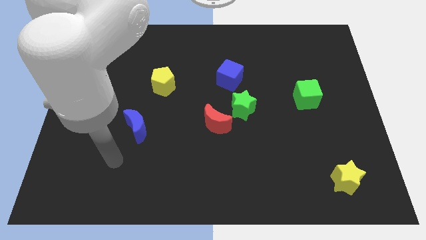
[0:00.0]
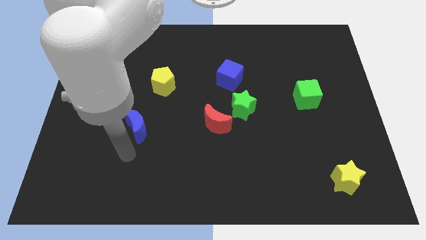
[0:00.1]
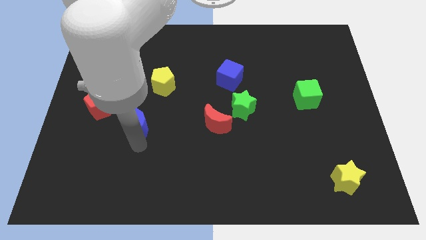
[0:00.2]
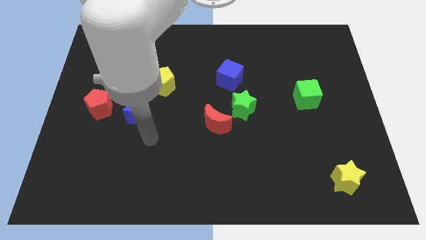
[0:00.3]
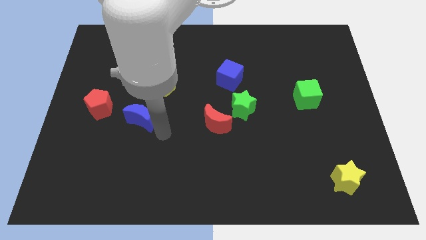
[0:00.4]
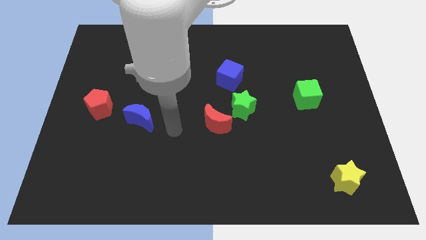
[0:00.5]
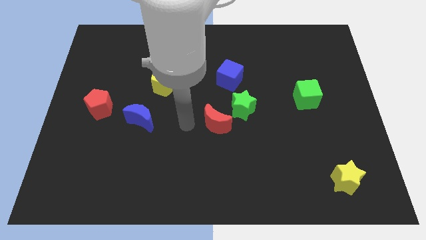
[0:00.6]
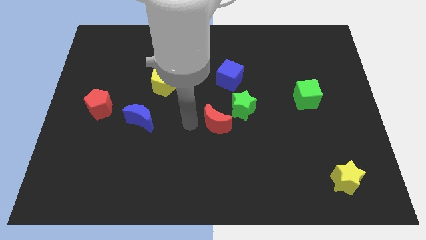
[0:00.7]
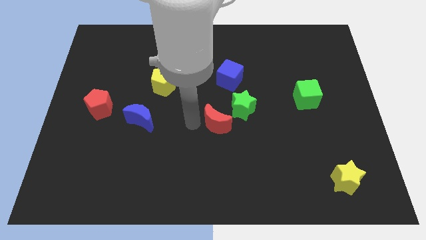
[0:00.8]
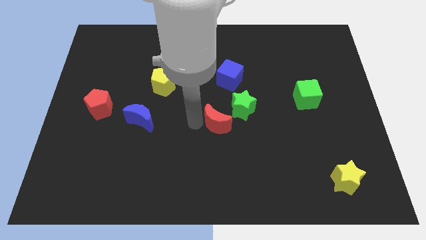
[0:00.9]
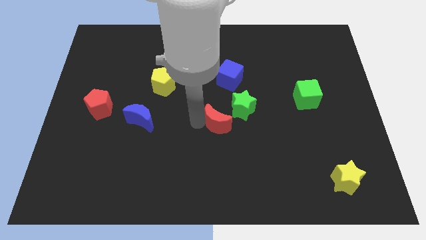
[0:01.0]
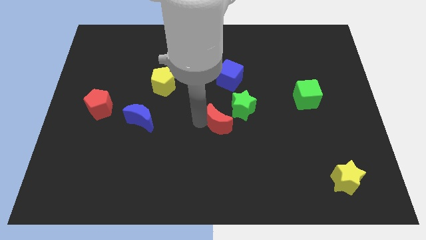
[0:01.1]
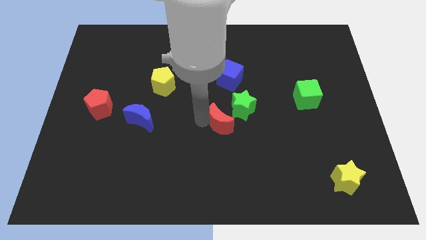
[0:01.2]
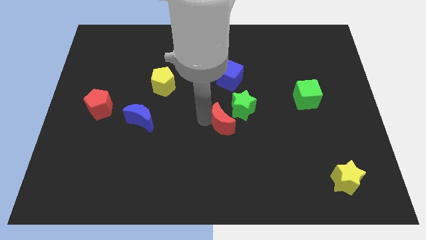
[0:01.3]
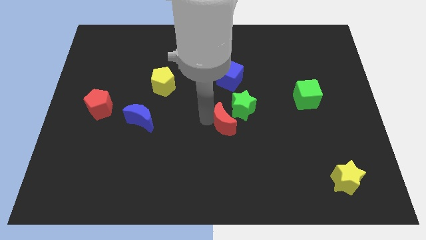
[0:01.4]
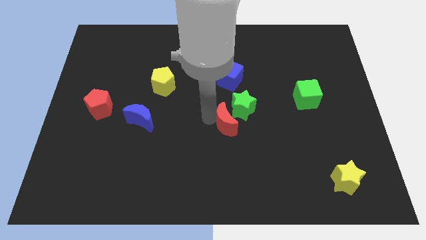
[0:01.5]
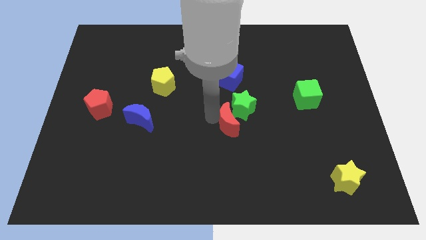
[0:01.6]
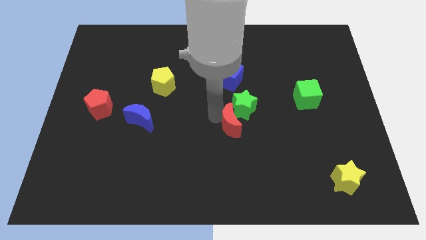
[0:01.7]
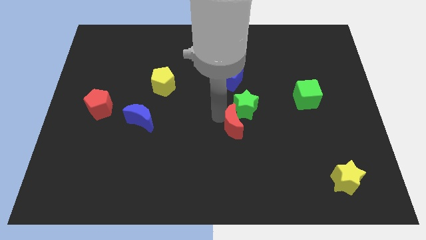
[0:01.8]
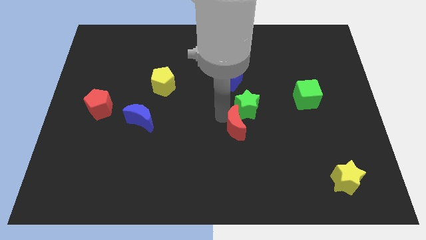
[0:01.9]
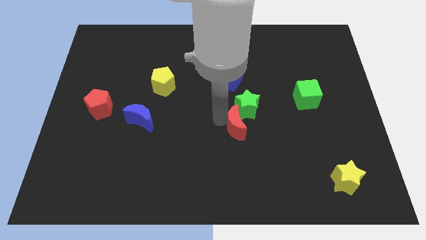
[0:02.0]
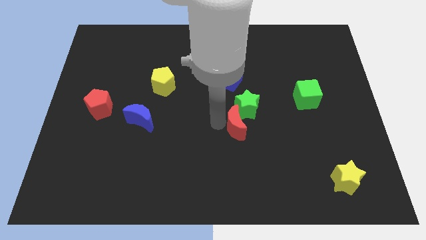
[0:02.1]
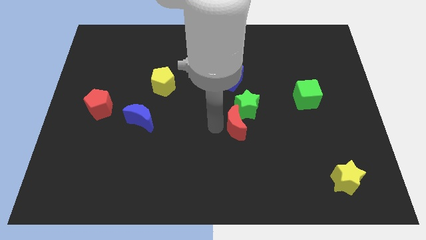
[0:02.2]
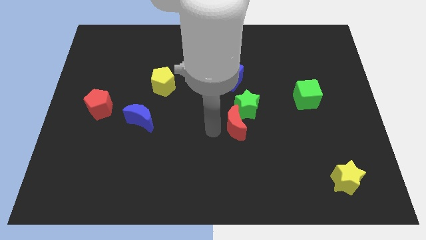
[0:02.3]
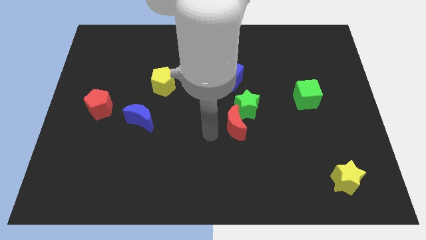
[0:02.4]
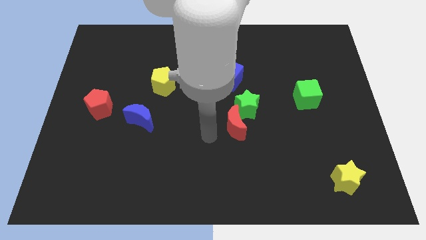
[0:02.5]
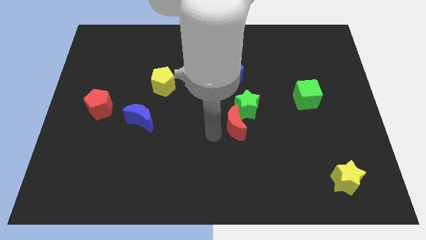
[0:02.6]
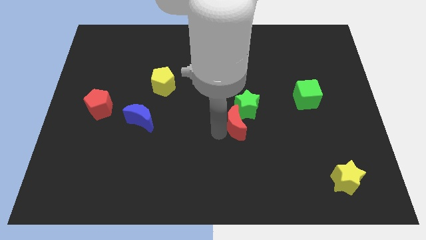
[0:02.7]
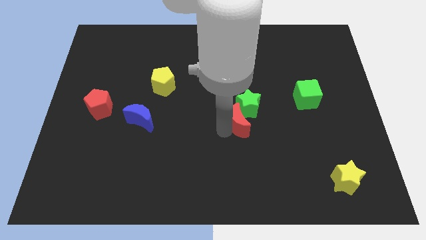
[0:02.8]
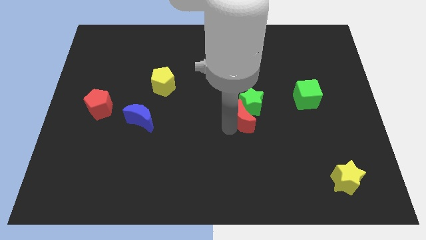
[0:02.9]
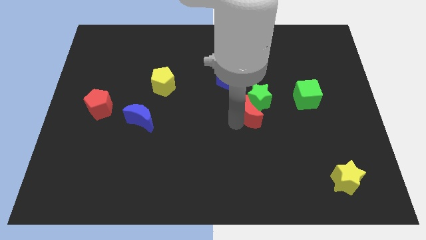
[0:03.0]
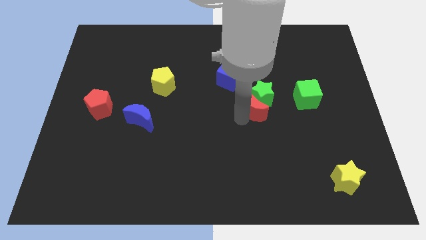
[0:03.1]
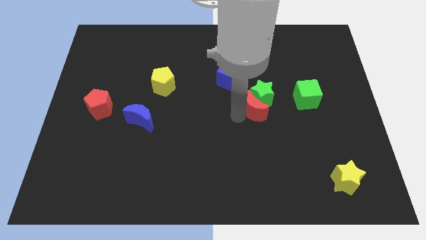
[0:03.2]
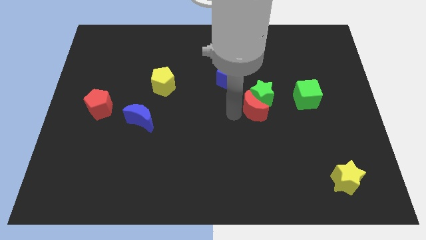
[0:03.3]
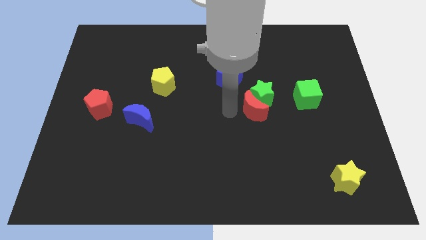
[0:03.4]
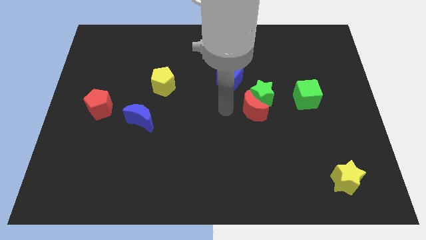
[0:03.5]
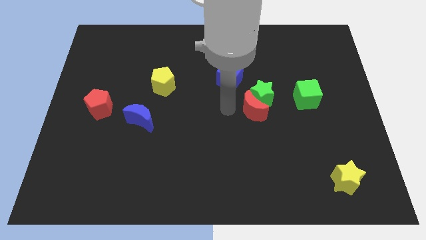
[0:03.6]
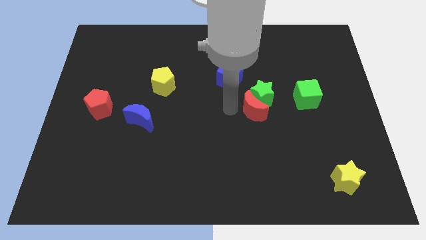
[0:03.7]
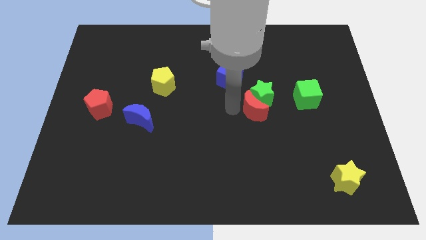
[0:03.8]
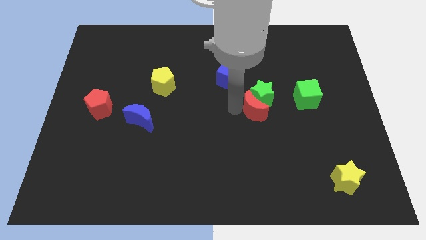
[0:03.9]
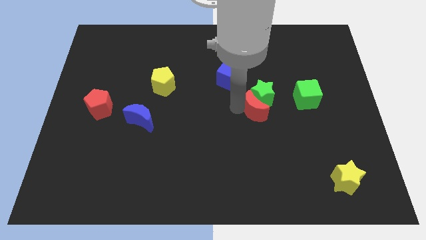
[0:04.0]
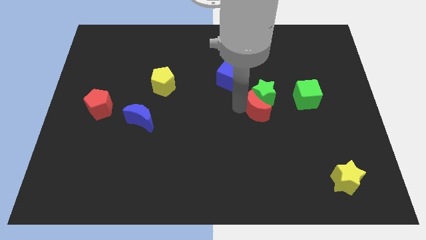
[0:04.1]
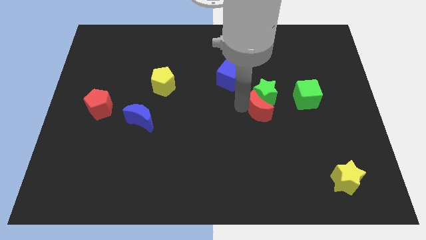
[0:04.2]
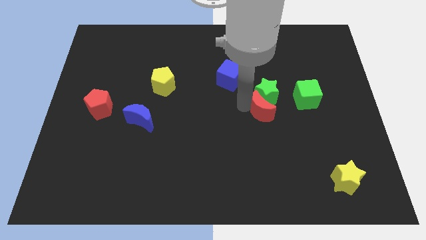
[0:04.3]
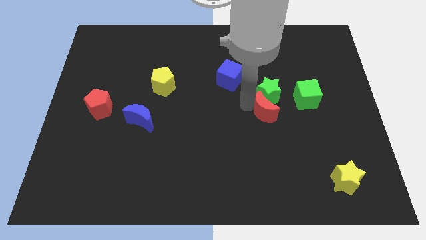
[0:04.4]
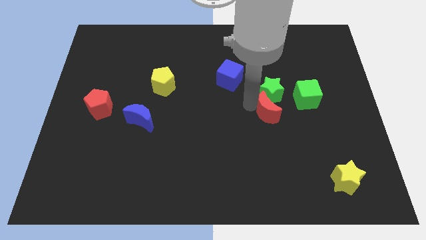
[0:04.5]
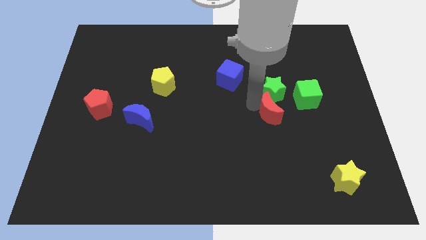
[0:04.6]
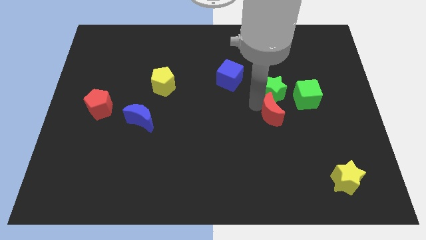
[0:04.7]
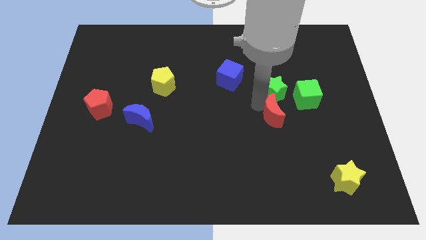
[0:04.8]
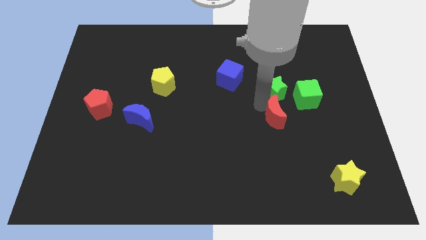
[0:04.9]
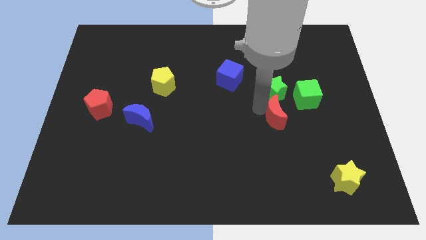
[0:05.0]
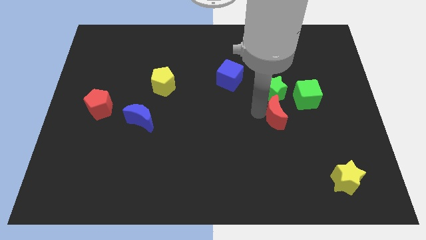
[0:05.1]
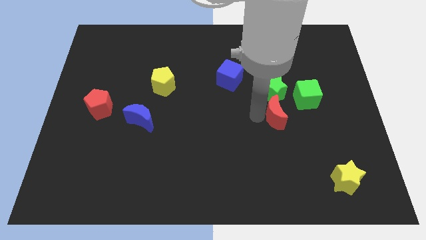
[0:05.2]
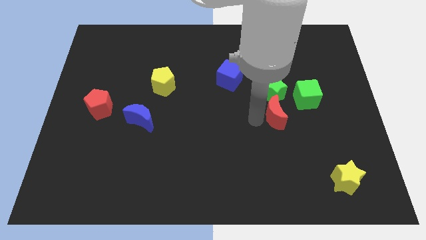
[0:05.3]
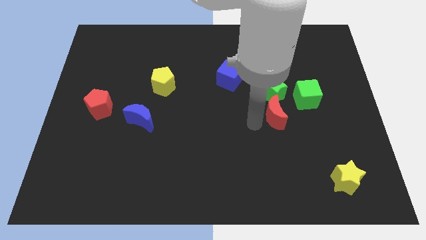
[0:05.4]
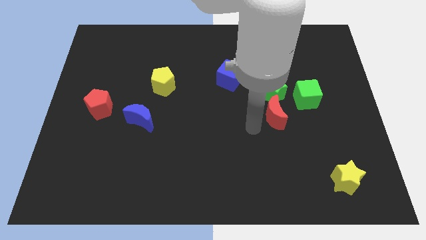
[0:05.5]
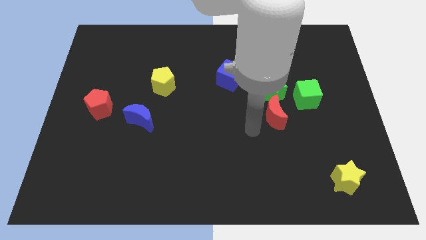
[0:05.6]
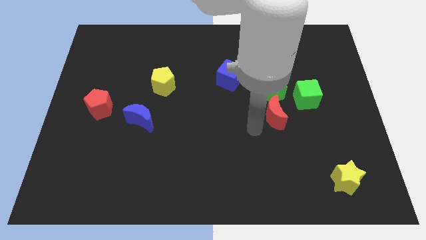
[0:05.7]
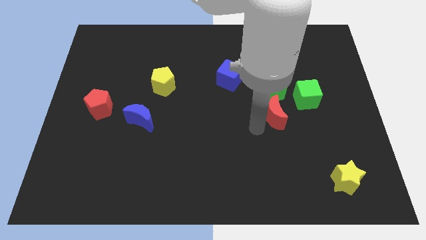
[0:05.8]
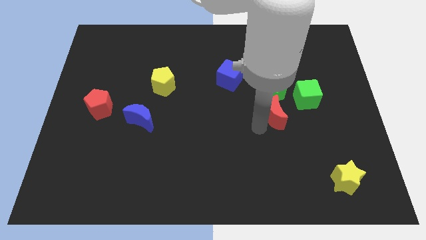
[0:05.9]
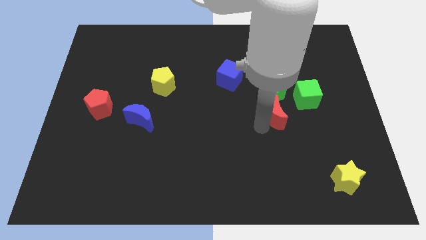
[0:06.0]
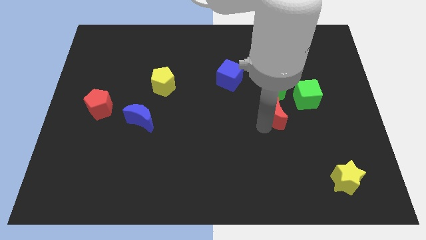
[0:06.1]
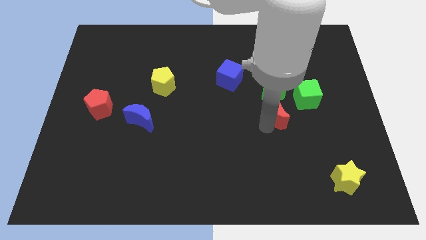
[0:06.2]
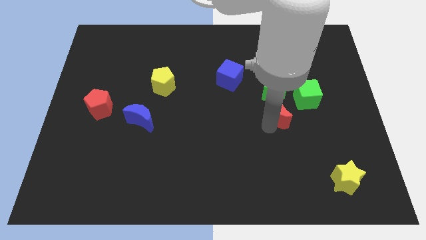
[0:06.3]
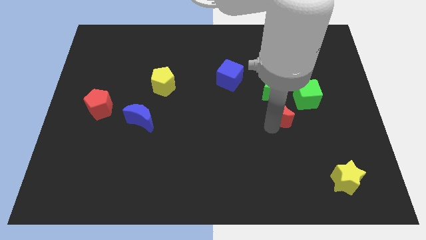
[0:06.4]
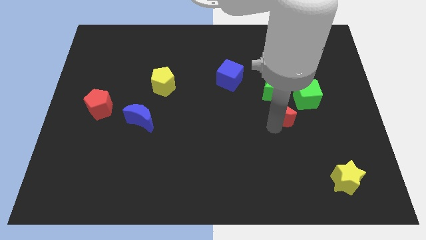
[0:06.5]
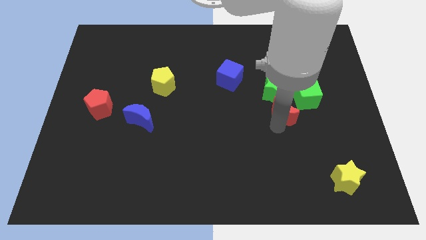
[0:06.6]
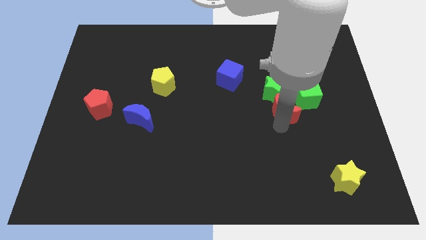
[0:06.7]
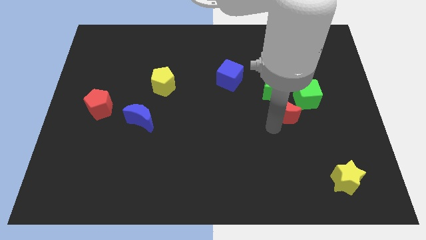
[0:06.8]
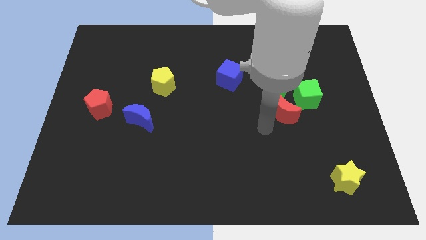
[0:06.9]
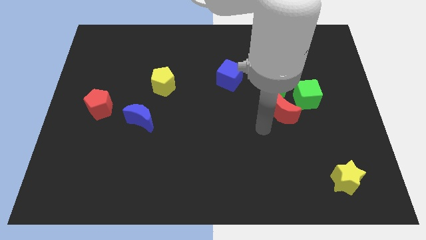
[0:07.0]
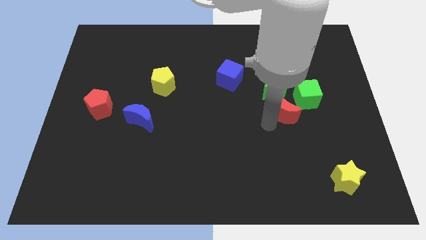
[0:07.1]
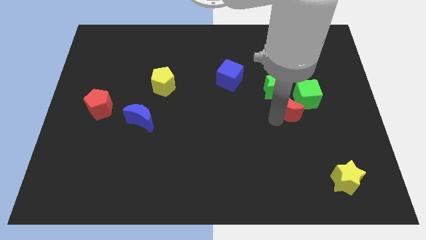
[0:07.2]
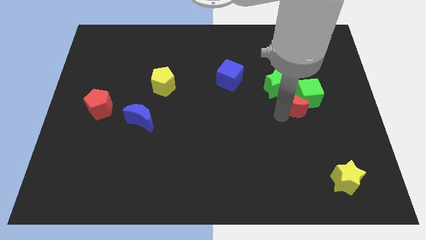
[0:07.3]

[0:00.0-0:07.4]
put the red moon towards the green cube

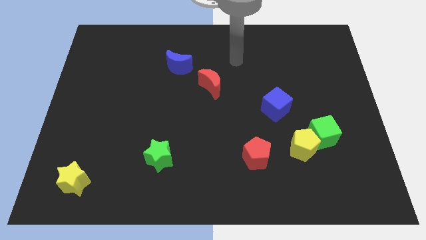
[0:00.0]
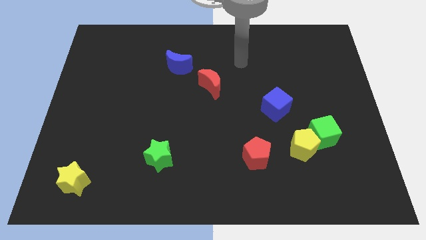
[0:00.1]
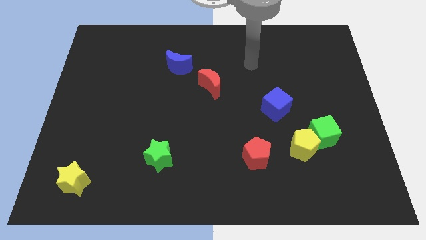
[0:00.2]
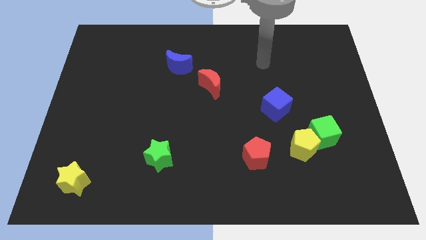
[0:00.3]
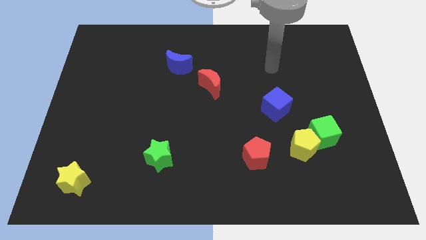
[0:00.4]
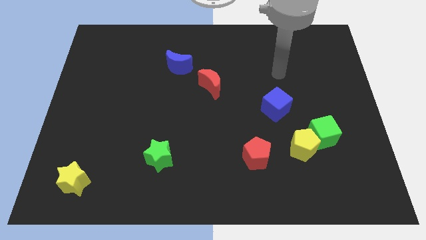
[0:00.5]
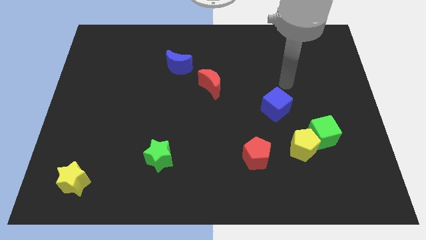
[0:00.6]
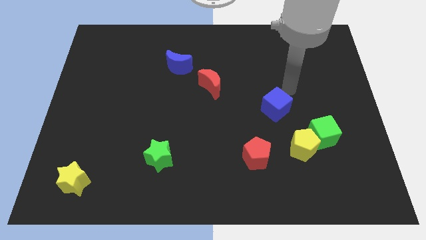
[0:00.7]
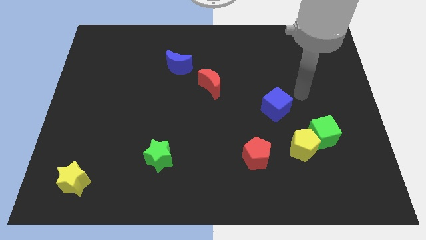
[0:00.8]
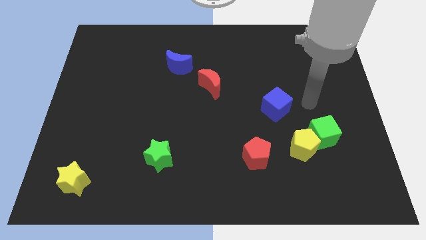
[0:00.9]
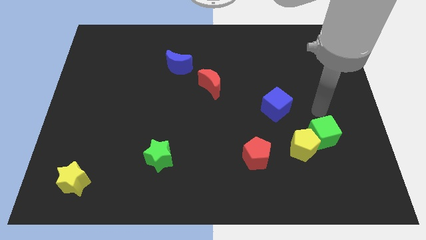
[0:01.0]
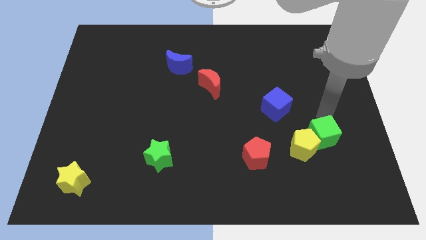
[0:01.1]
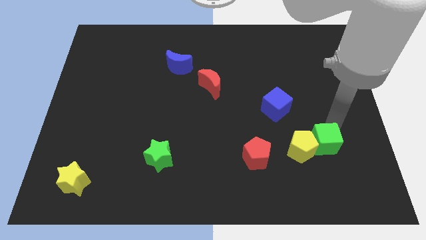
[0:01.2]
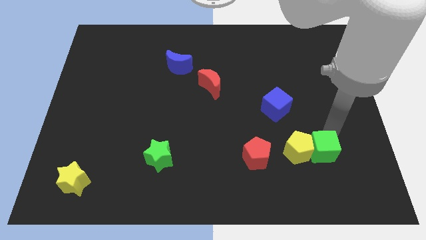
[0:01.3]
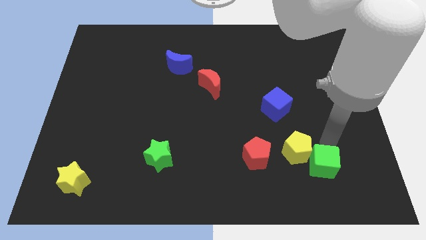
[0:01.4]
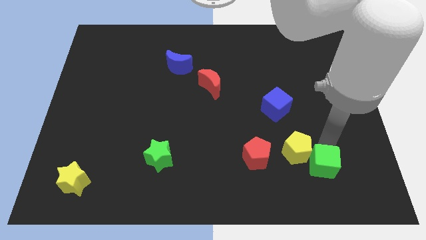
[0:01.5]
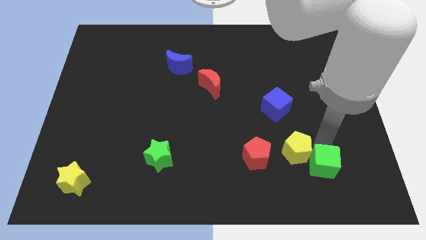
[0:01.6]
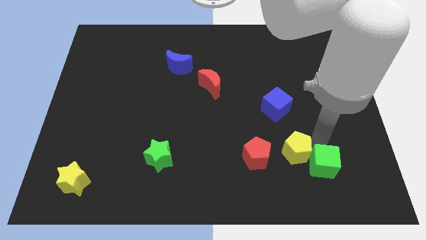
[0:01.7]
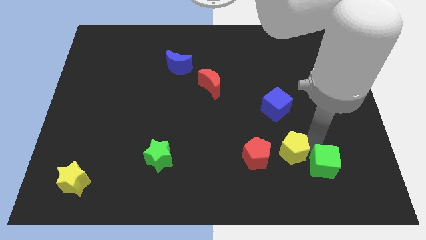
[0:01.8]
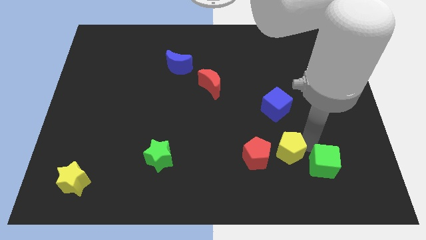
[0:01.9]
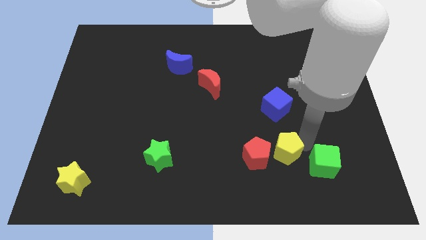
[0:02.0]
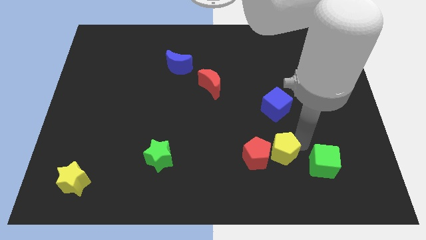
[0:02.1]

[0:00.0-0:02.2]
put the yellow pentagon close to the red pentagon
